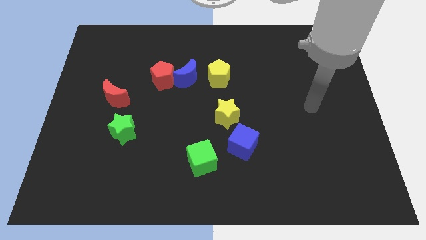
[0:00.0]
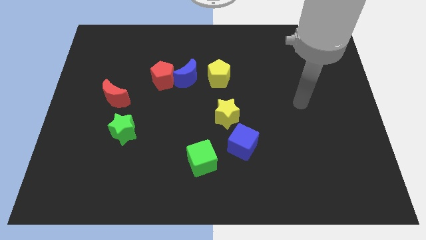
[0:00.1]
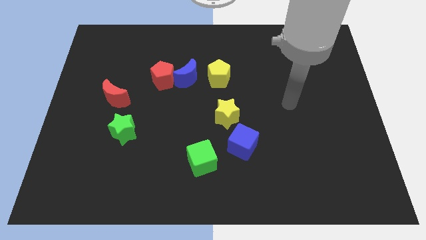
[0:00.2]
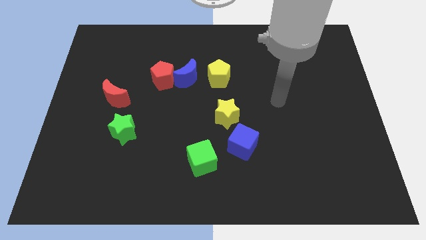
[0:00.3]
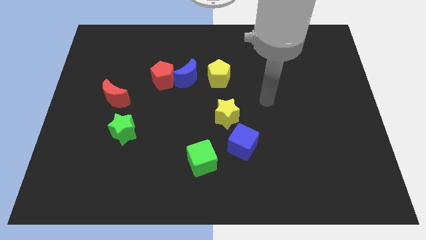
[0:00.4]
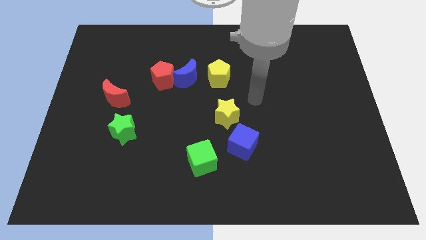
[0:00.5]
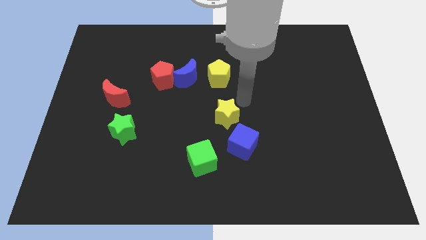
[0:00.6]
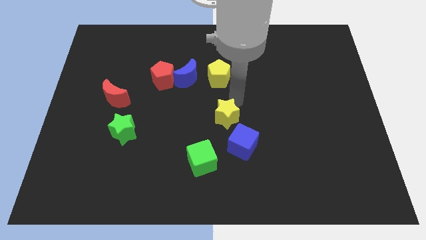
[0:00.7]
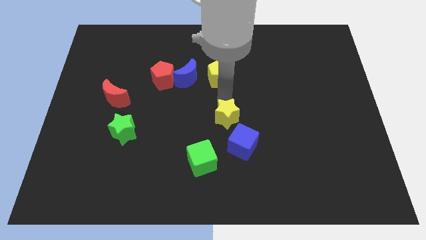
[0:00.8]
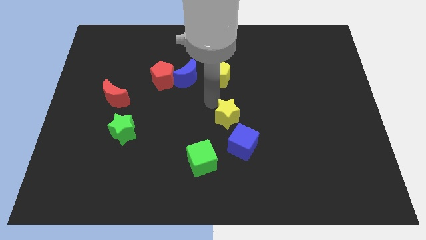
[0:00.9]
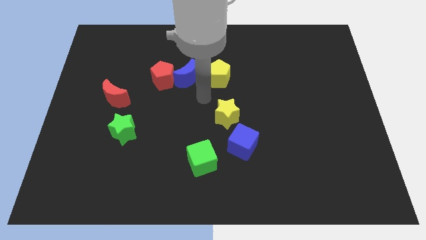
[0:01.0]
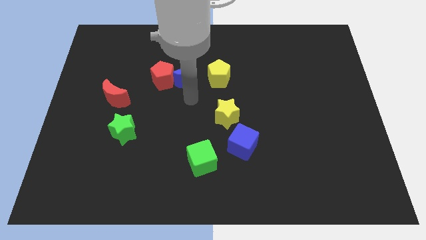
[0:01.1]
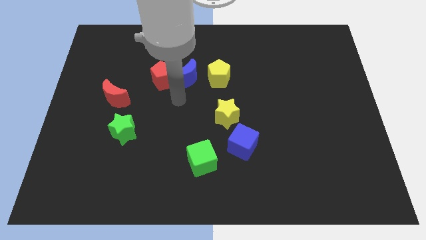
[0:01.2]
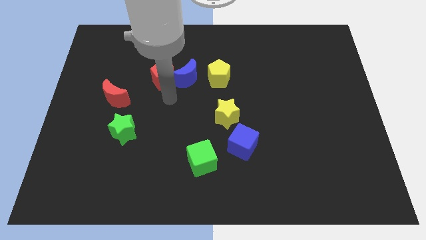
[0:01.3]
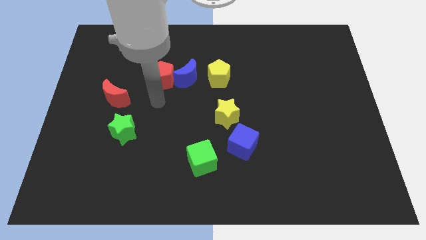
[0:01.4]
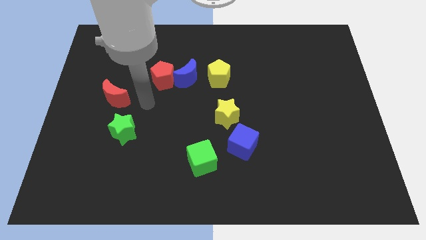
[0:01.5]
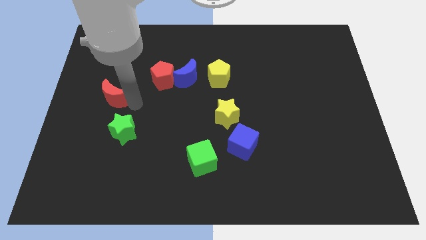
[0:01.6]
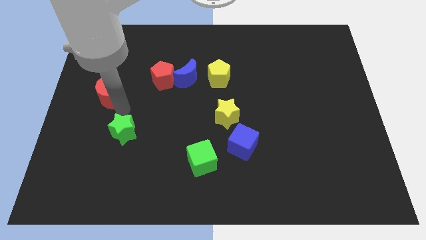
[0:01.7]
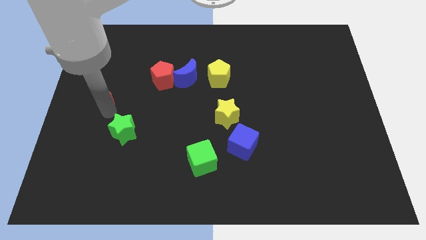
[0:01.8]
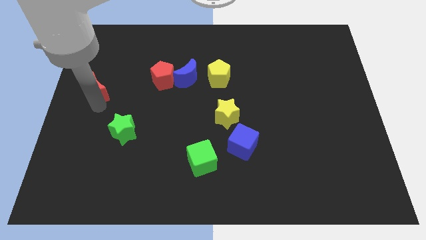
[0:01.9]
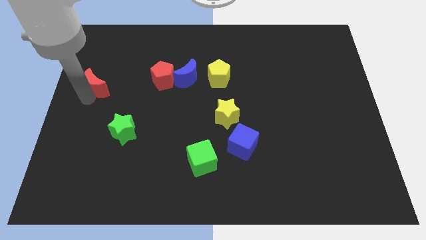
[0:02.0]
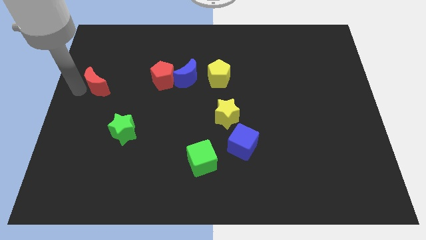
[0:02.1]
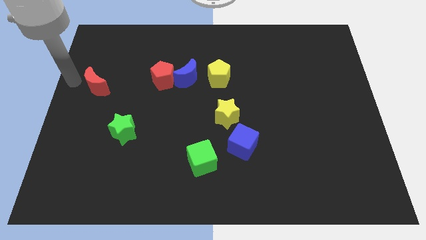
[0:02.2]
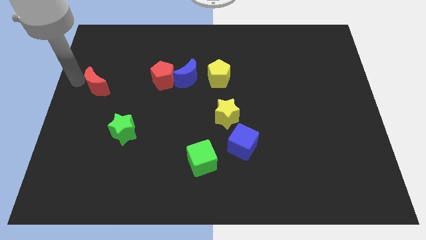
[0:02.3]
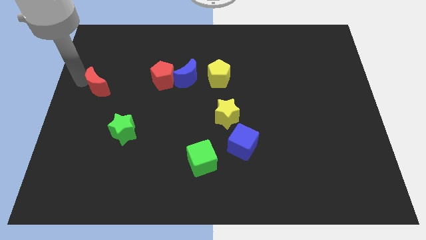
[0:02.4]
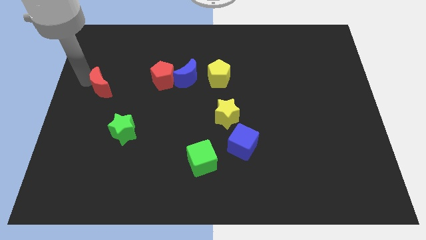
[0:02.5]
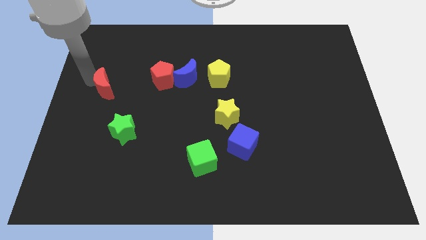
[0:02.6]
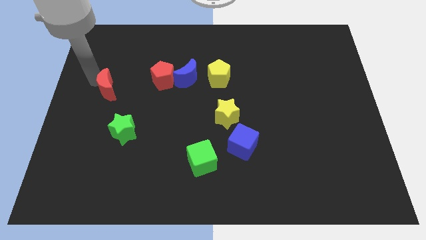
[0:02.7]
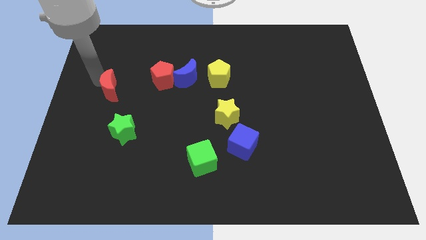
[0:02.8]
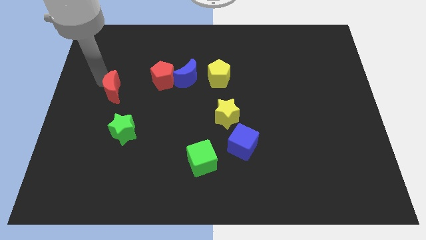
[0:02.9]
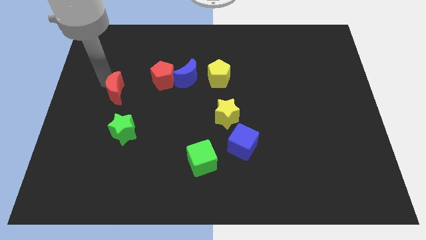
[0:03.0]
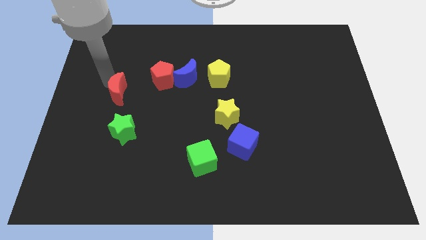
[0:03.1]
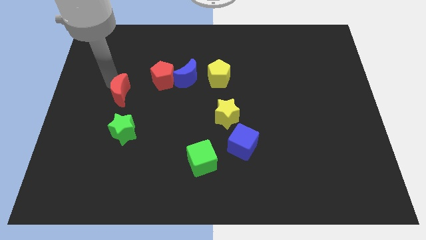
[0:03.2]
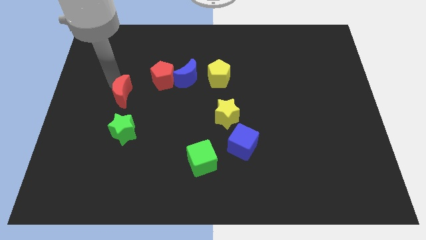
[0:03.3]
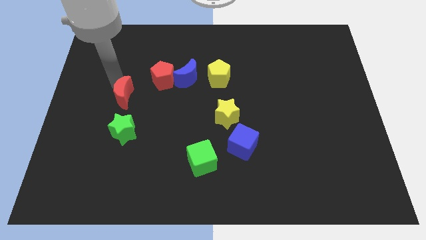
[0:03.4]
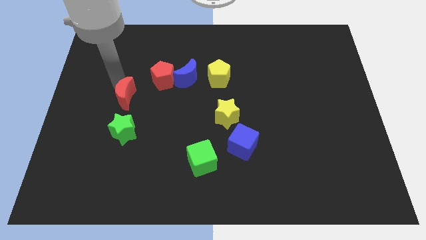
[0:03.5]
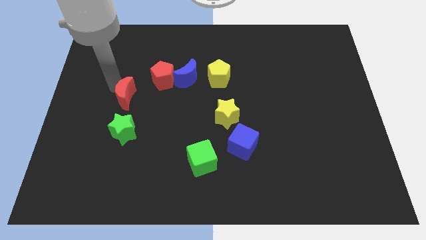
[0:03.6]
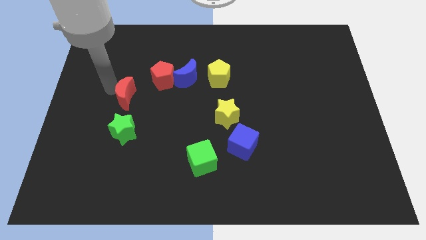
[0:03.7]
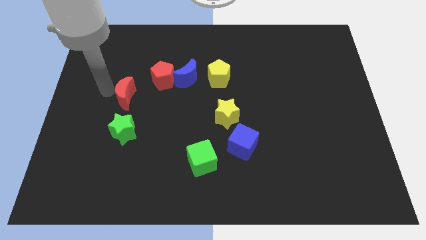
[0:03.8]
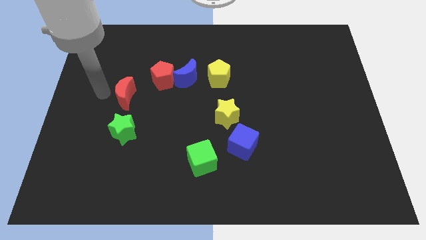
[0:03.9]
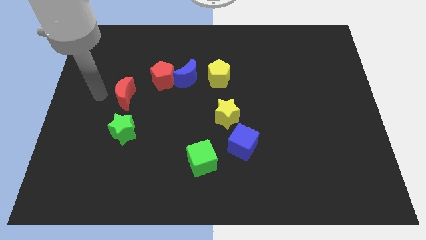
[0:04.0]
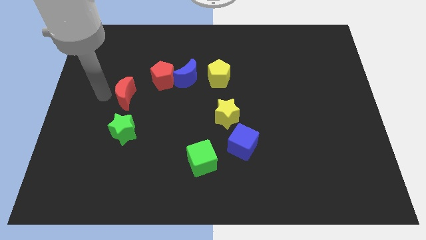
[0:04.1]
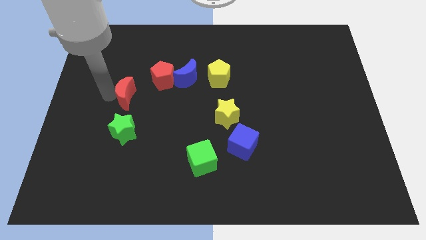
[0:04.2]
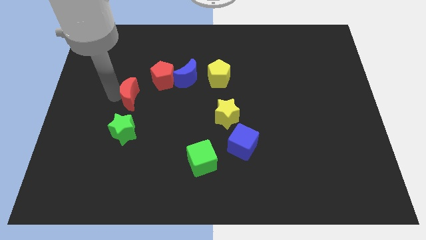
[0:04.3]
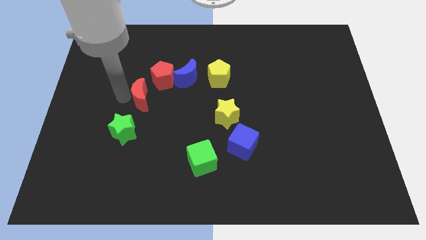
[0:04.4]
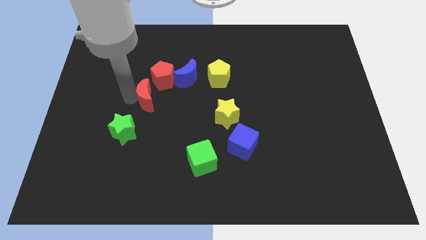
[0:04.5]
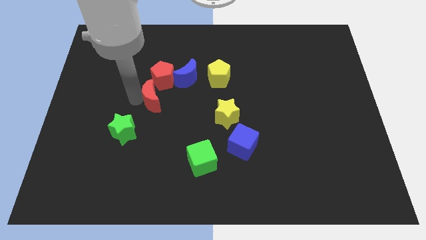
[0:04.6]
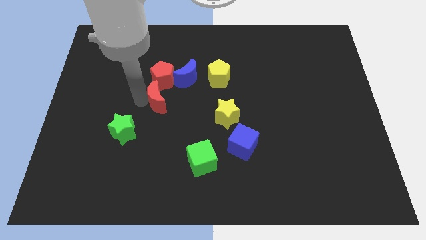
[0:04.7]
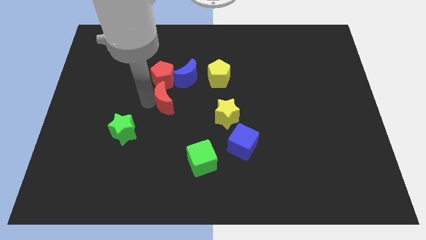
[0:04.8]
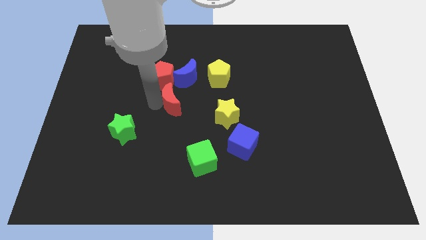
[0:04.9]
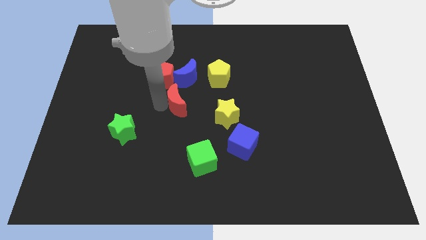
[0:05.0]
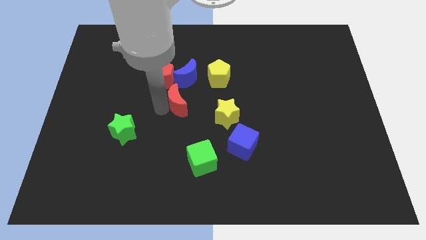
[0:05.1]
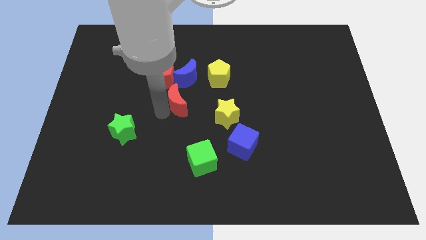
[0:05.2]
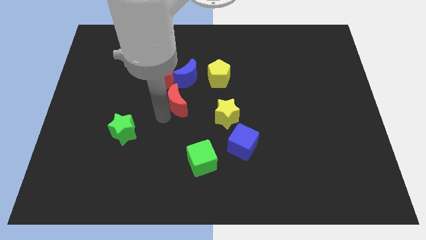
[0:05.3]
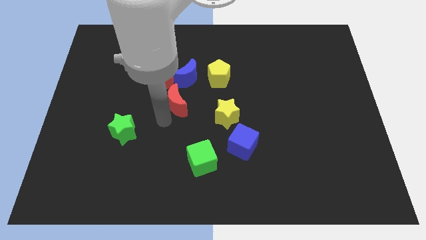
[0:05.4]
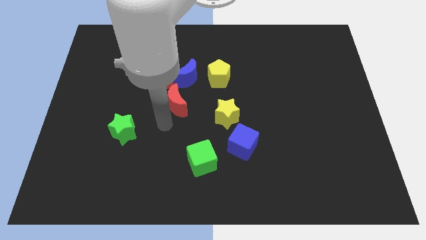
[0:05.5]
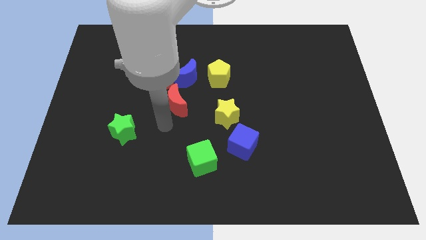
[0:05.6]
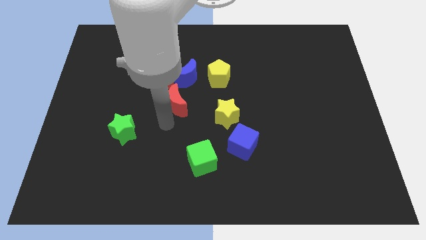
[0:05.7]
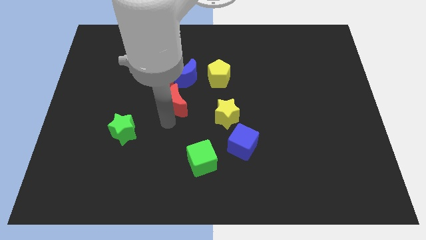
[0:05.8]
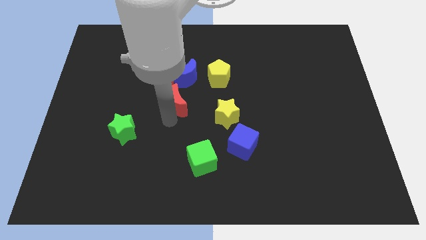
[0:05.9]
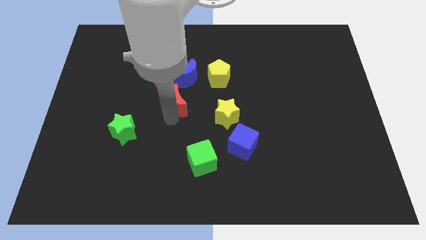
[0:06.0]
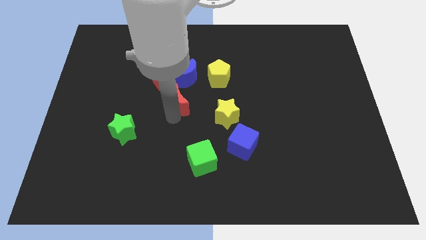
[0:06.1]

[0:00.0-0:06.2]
slide the red moon to the bottom left side of the yellow pentagon

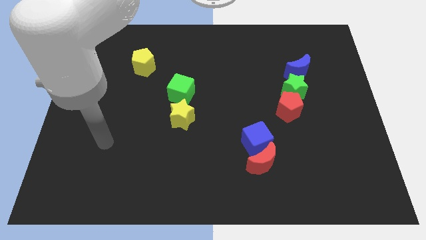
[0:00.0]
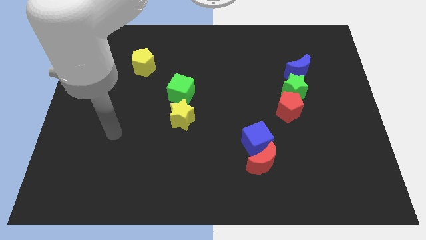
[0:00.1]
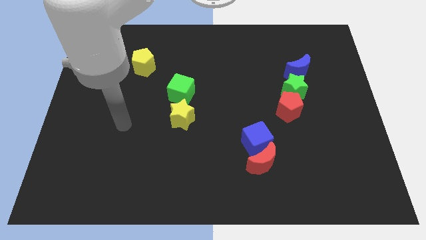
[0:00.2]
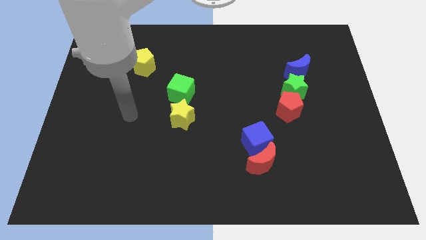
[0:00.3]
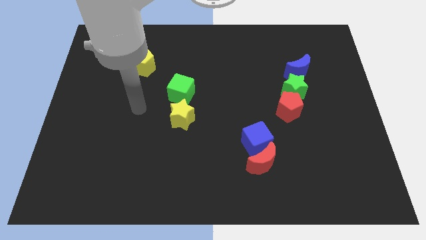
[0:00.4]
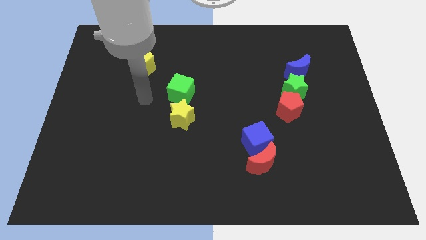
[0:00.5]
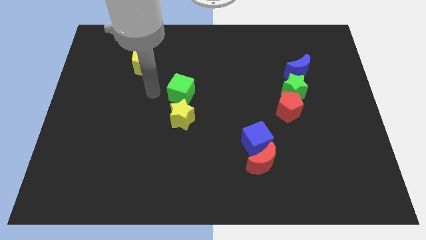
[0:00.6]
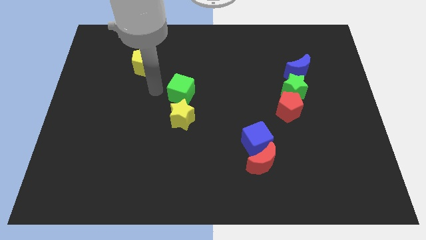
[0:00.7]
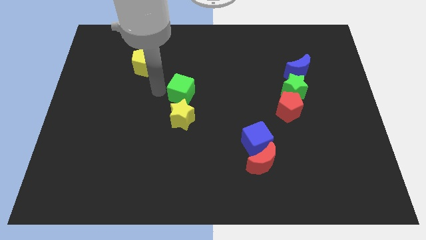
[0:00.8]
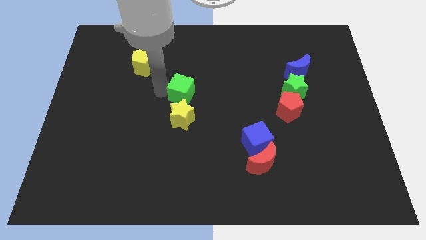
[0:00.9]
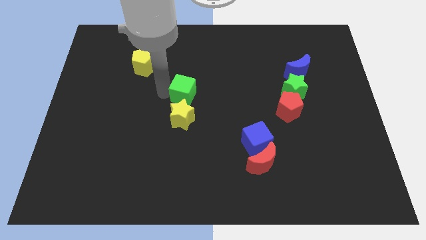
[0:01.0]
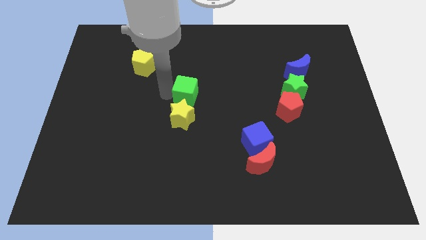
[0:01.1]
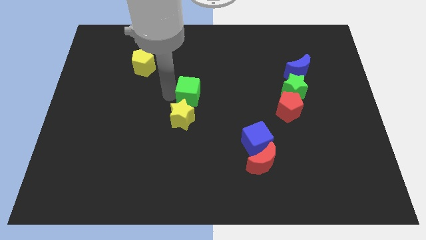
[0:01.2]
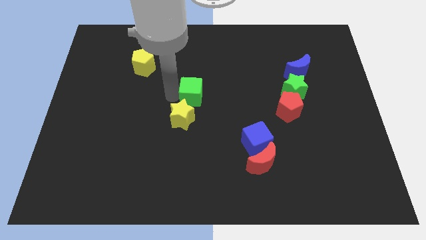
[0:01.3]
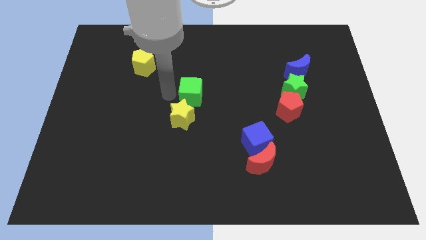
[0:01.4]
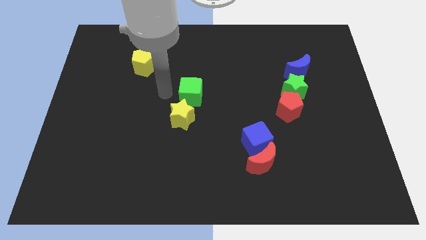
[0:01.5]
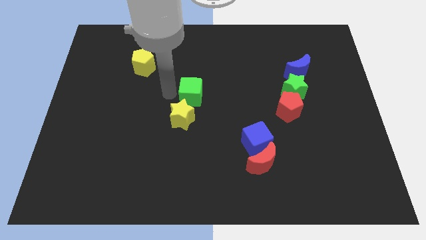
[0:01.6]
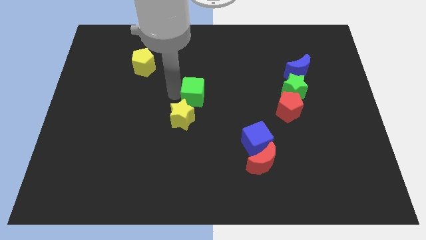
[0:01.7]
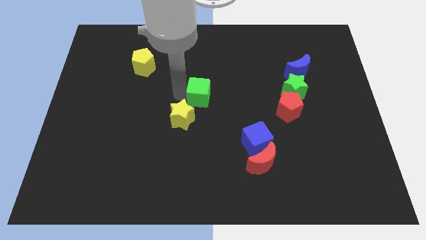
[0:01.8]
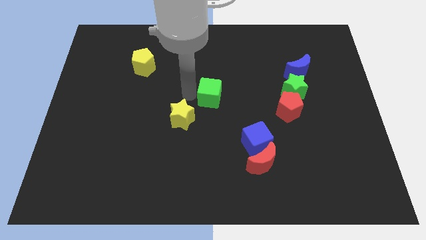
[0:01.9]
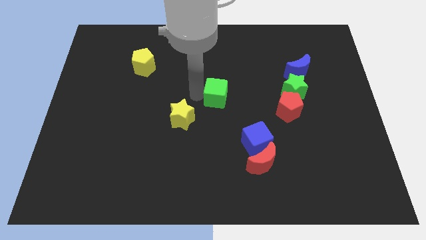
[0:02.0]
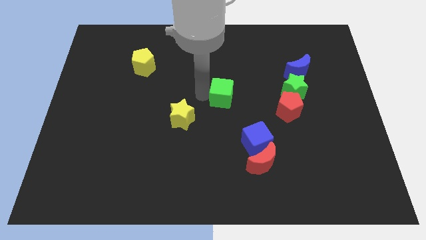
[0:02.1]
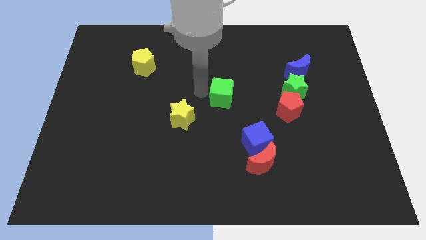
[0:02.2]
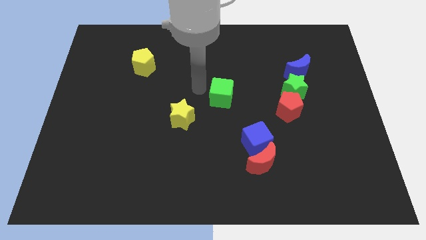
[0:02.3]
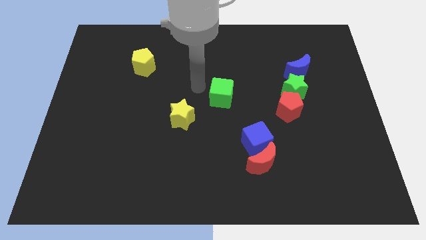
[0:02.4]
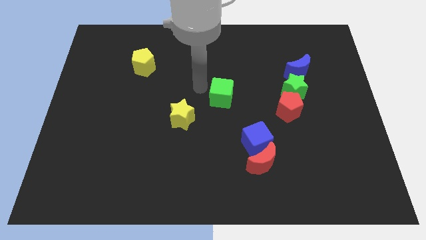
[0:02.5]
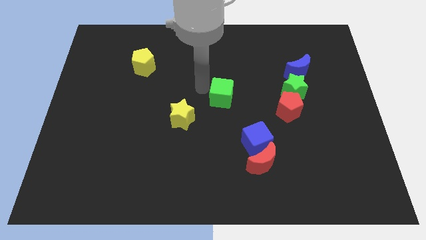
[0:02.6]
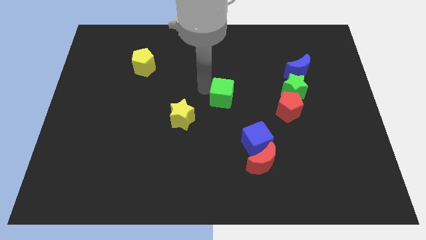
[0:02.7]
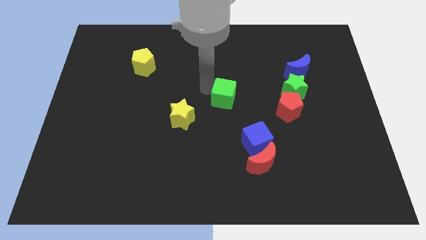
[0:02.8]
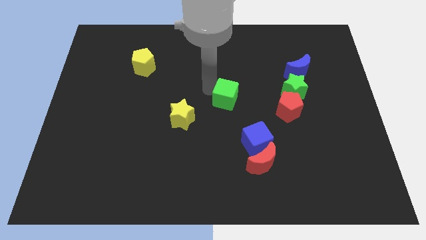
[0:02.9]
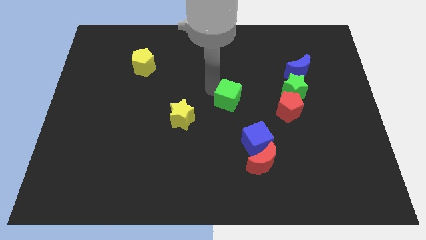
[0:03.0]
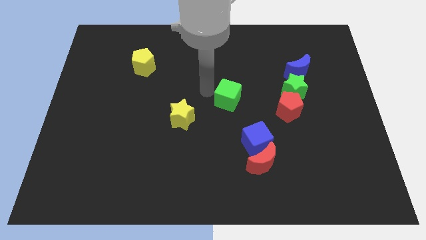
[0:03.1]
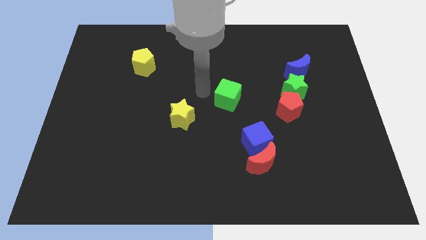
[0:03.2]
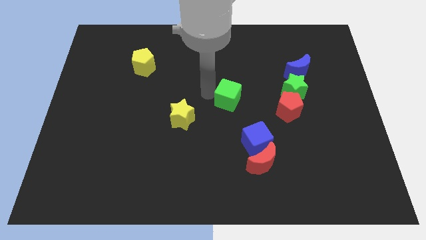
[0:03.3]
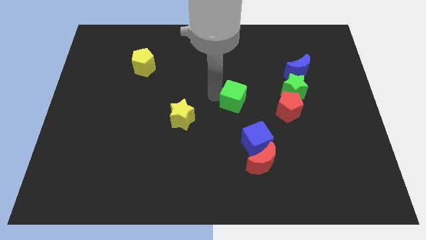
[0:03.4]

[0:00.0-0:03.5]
move the green cube to the top side of the blue cube
